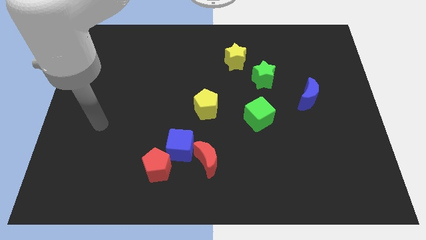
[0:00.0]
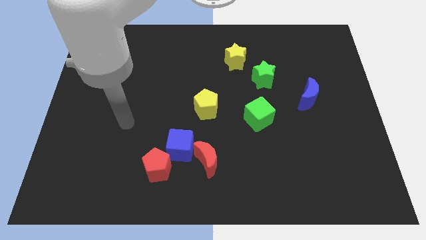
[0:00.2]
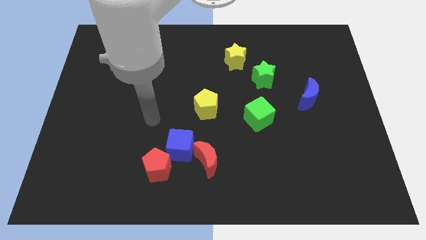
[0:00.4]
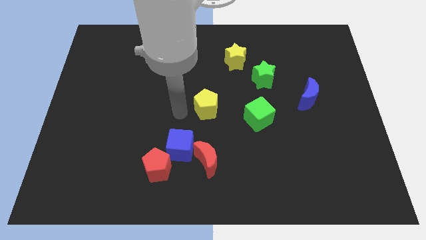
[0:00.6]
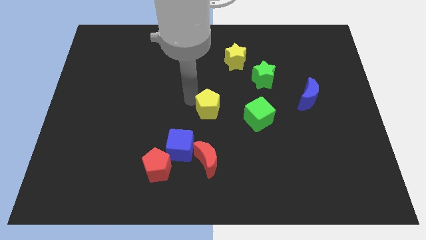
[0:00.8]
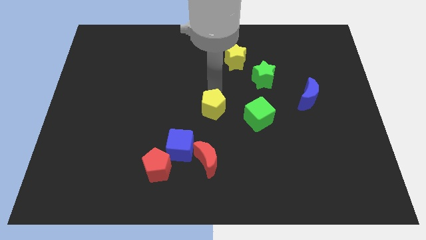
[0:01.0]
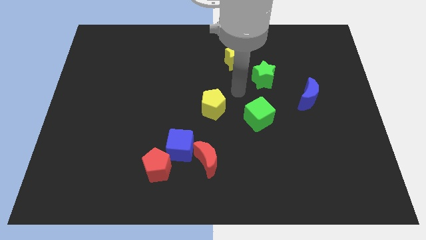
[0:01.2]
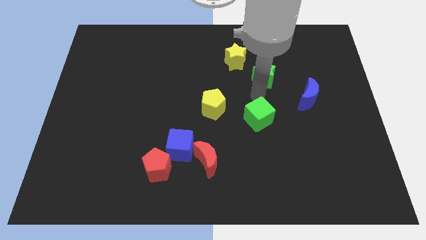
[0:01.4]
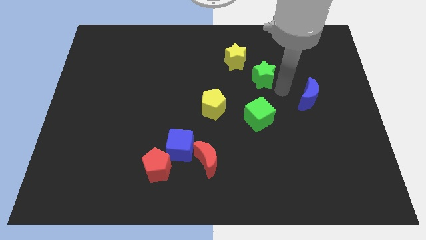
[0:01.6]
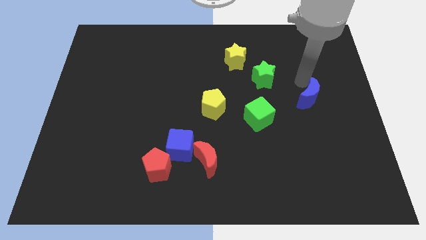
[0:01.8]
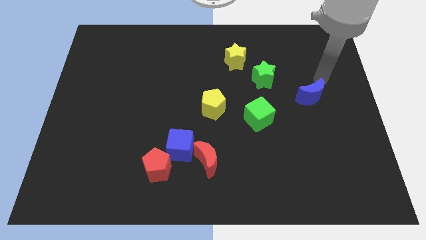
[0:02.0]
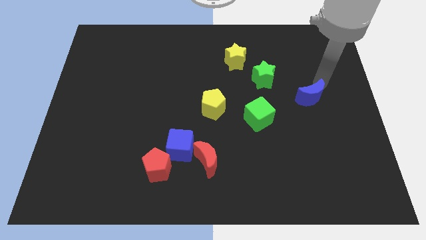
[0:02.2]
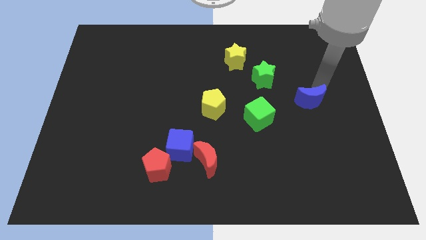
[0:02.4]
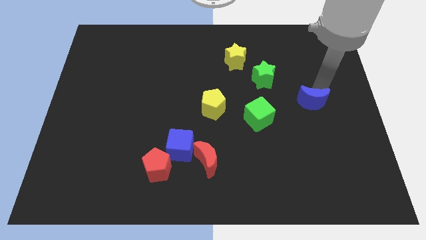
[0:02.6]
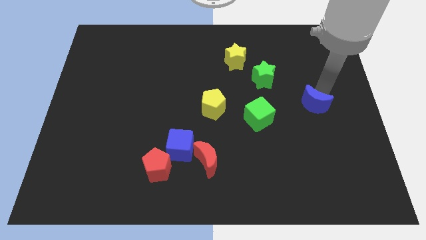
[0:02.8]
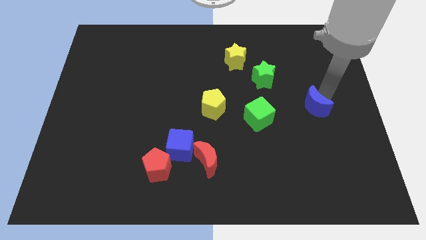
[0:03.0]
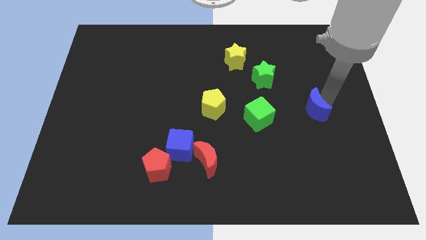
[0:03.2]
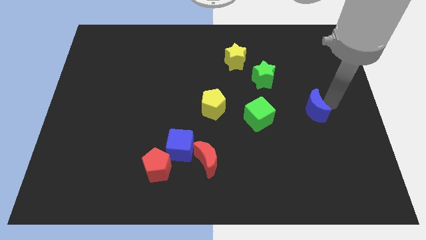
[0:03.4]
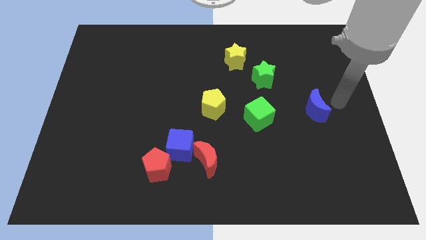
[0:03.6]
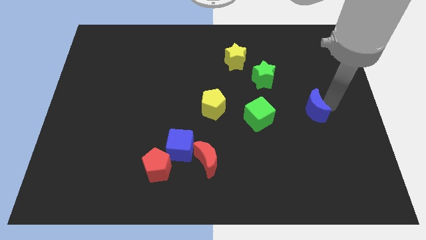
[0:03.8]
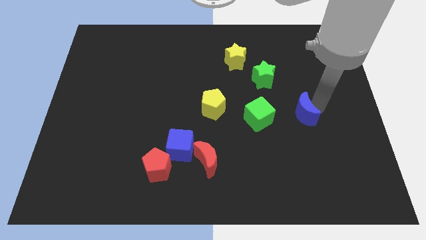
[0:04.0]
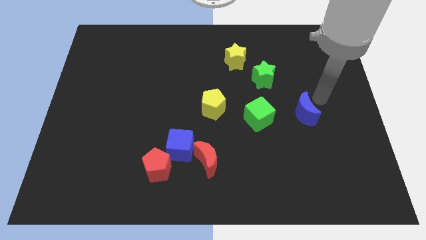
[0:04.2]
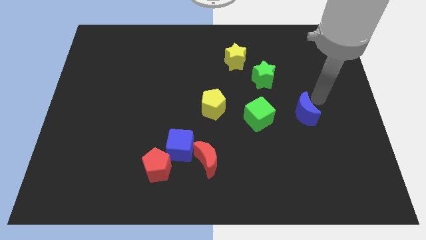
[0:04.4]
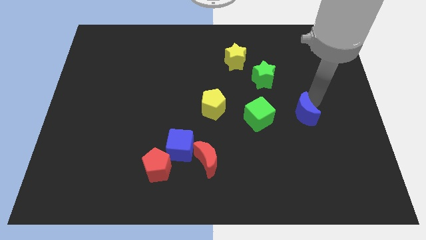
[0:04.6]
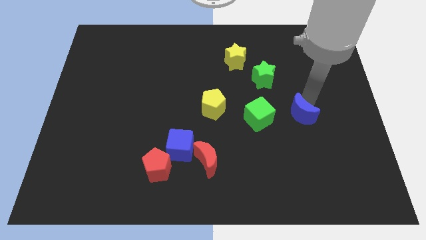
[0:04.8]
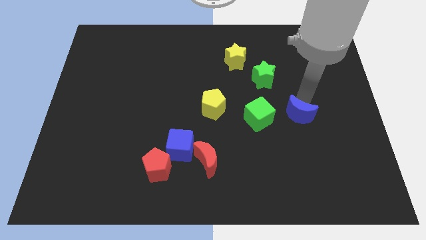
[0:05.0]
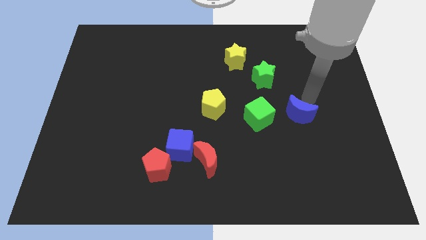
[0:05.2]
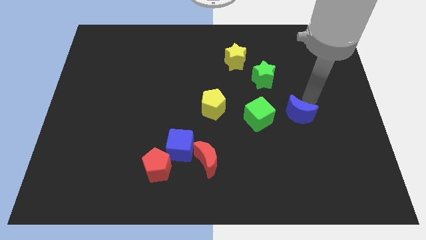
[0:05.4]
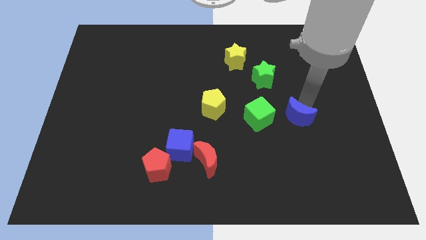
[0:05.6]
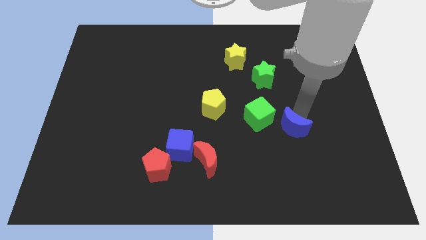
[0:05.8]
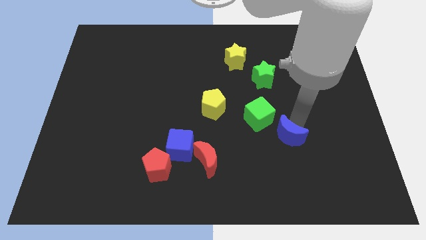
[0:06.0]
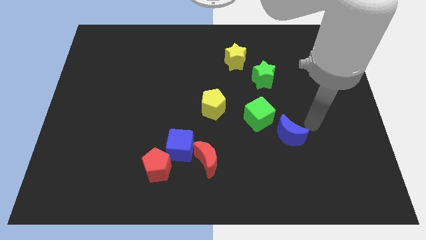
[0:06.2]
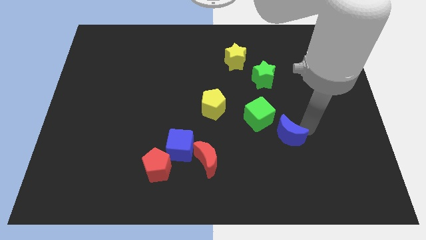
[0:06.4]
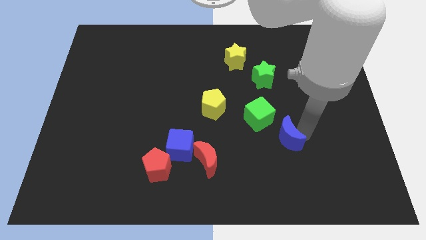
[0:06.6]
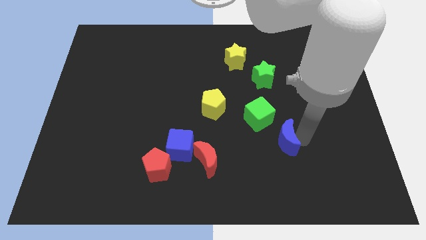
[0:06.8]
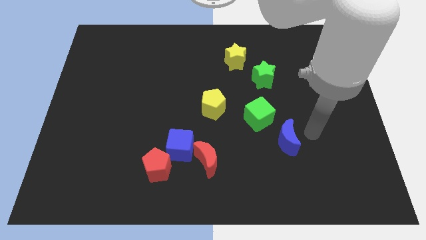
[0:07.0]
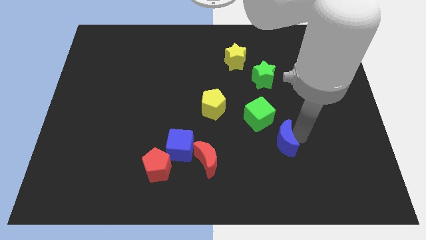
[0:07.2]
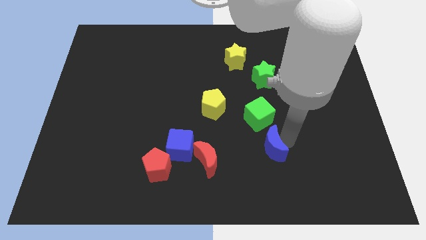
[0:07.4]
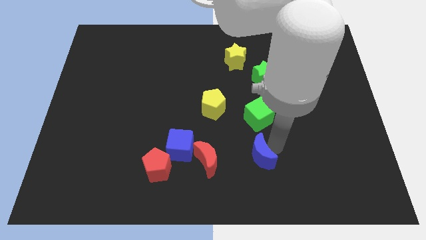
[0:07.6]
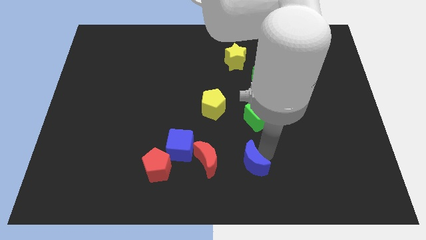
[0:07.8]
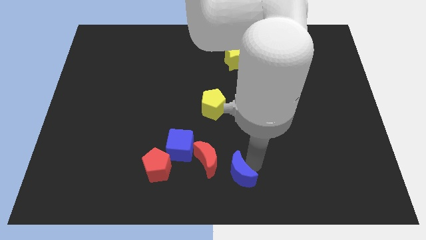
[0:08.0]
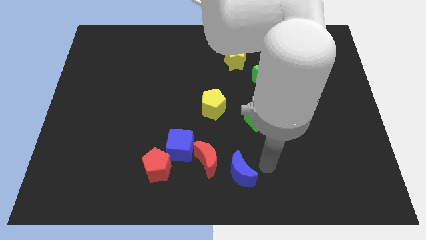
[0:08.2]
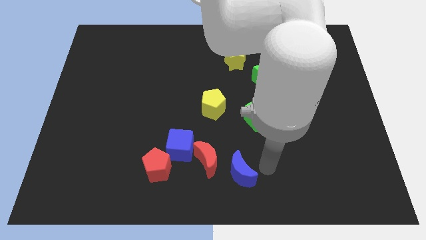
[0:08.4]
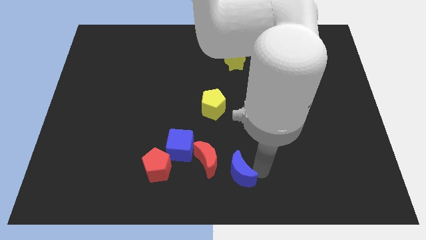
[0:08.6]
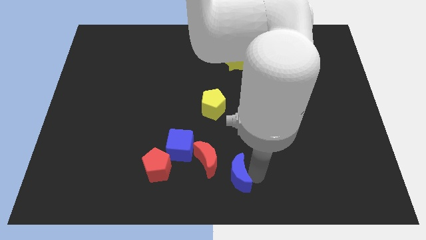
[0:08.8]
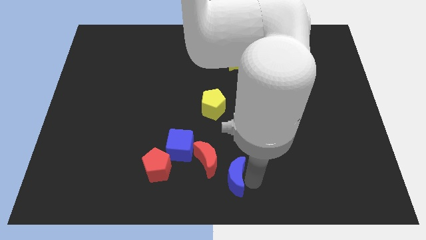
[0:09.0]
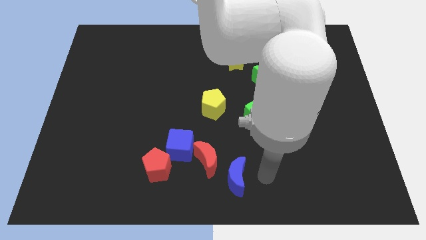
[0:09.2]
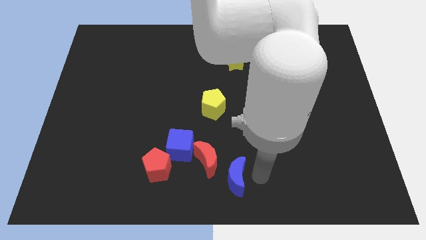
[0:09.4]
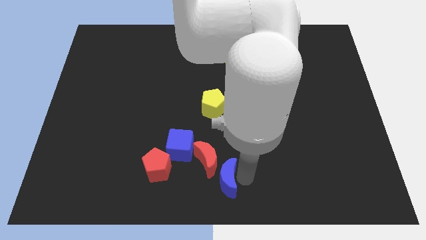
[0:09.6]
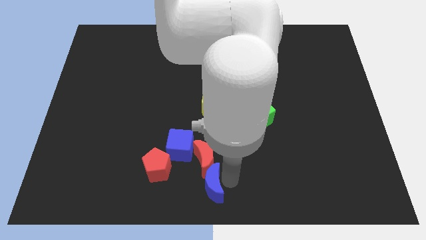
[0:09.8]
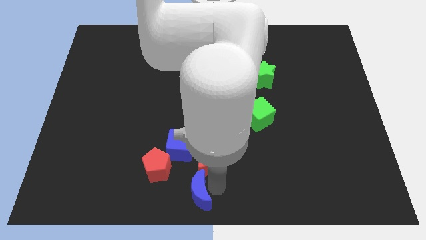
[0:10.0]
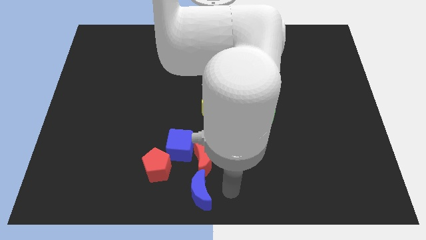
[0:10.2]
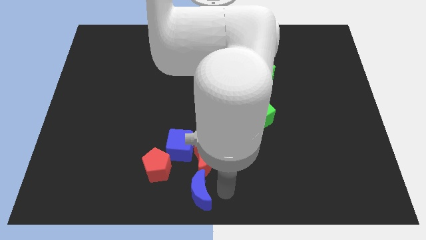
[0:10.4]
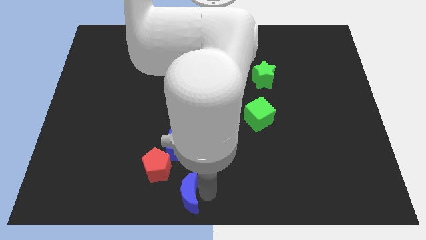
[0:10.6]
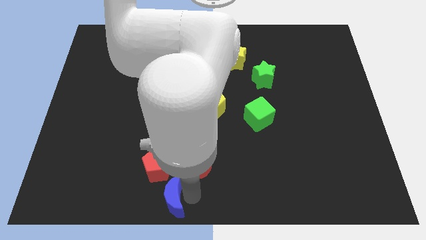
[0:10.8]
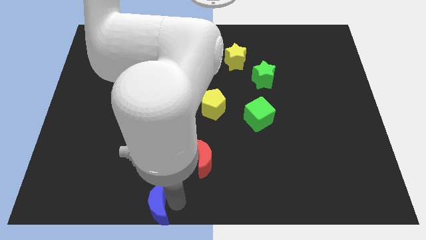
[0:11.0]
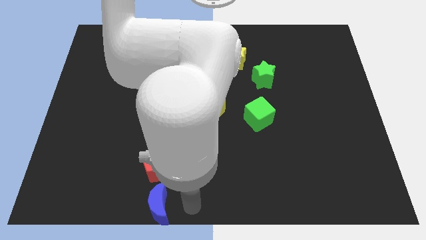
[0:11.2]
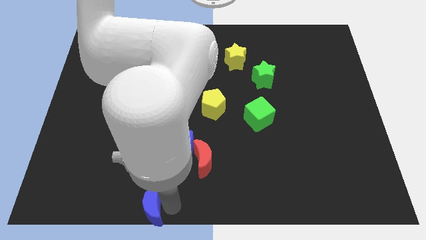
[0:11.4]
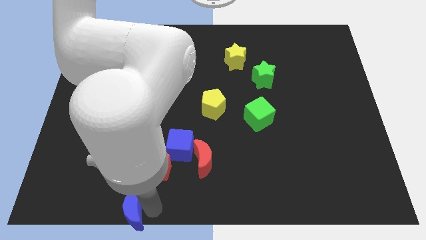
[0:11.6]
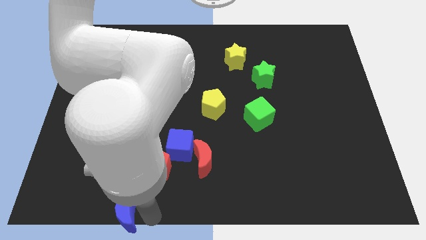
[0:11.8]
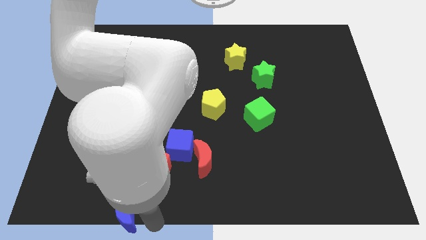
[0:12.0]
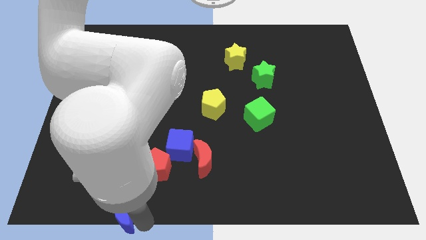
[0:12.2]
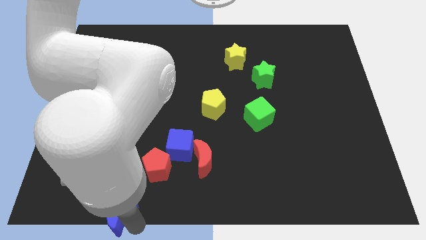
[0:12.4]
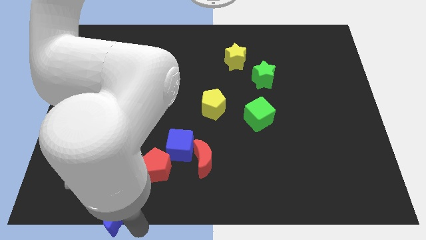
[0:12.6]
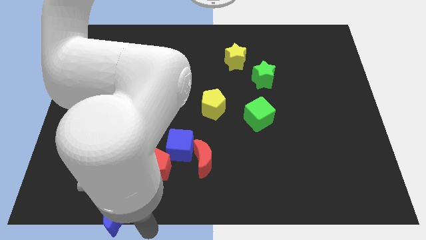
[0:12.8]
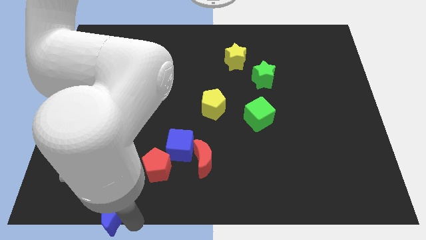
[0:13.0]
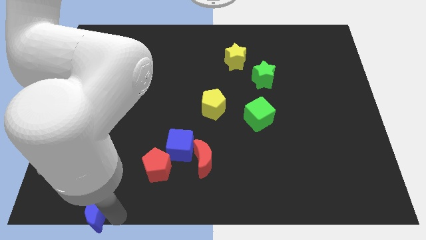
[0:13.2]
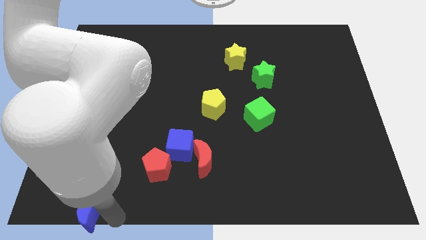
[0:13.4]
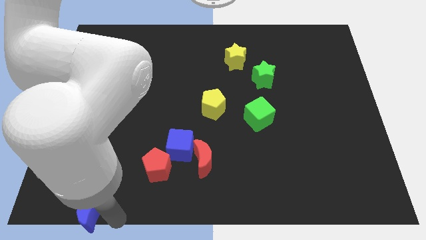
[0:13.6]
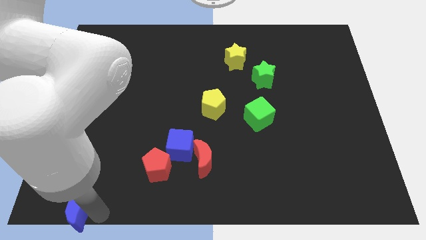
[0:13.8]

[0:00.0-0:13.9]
push the blue moon to the bottom left of the board
